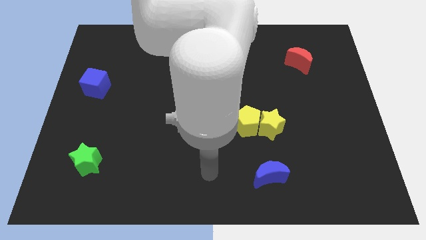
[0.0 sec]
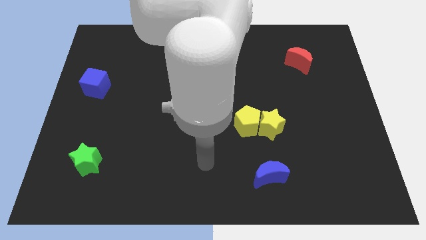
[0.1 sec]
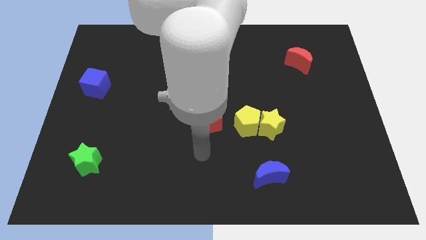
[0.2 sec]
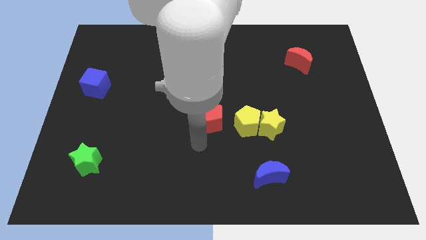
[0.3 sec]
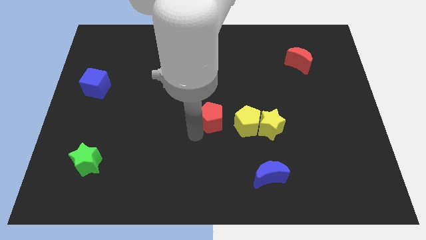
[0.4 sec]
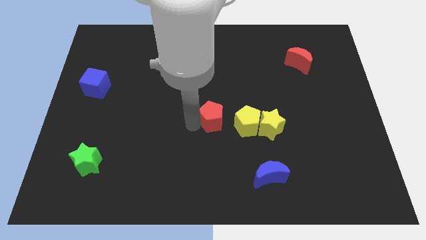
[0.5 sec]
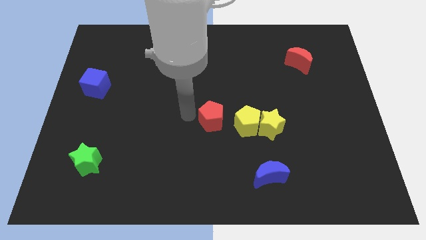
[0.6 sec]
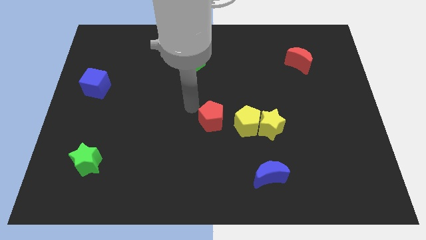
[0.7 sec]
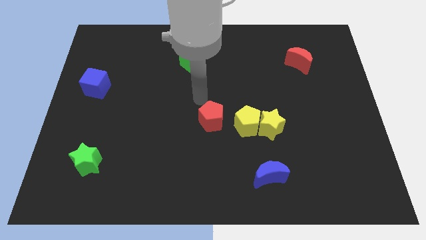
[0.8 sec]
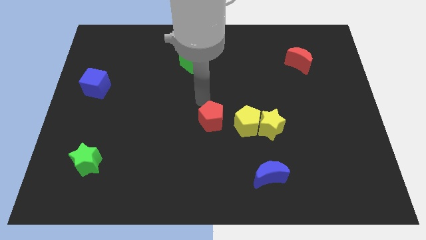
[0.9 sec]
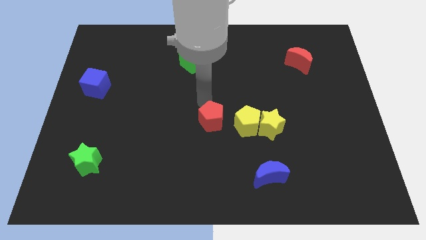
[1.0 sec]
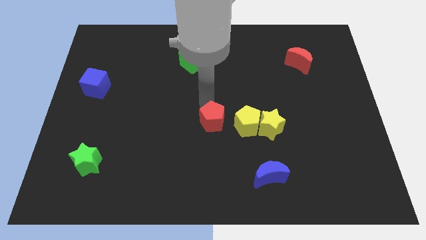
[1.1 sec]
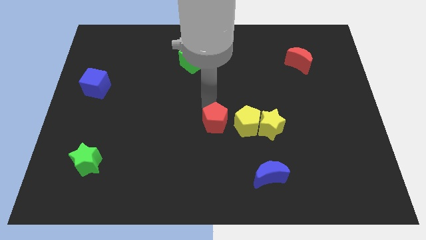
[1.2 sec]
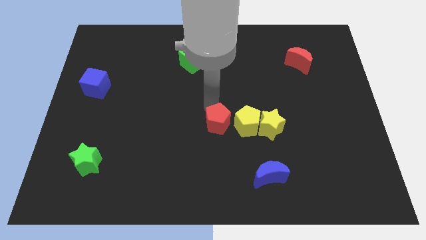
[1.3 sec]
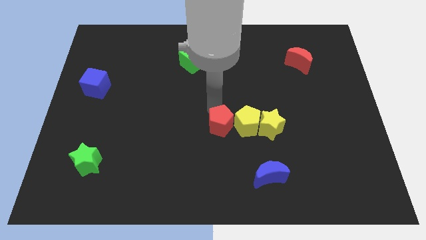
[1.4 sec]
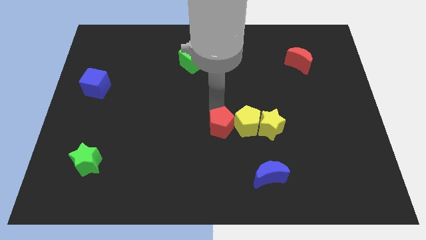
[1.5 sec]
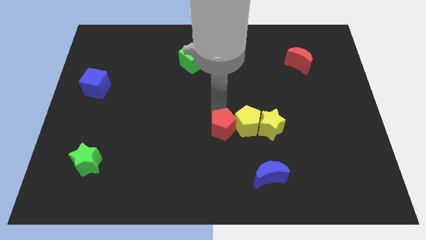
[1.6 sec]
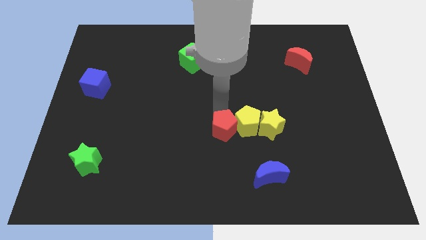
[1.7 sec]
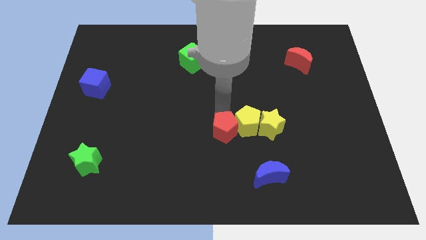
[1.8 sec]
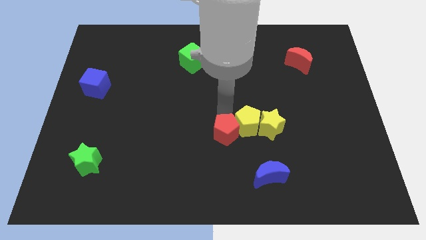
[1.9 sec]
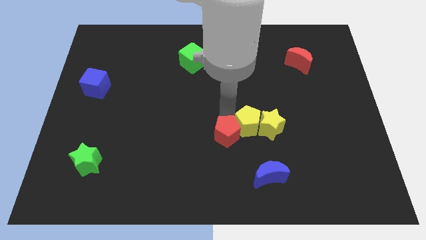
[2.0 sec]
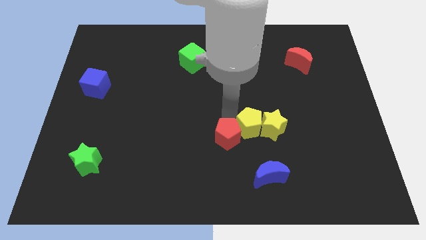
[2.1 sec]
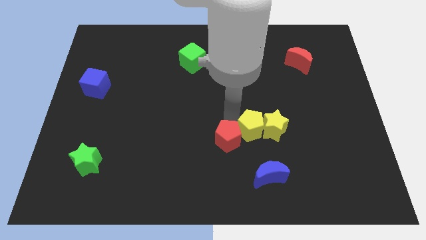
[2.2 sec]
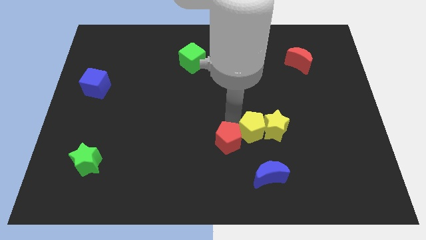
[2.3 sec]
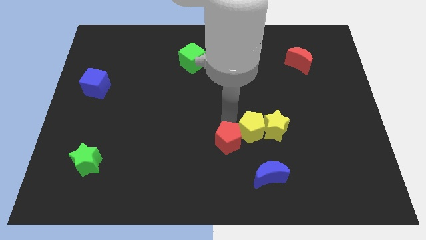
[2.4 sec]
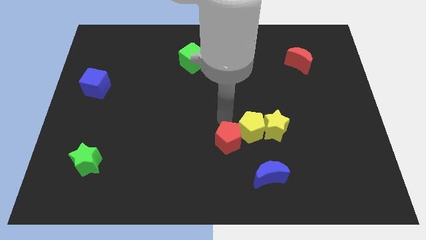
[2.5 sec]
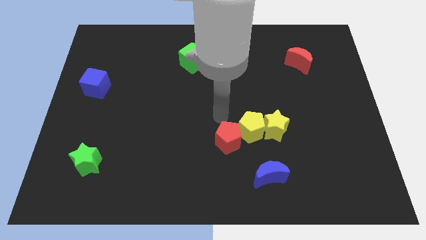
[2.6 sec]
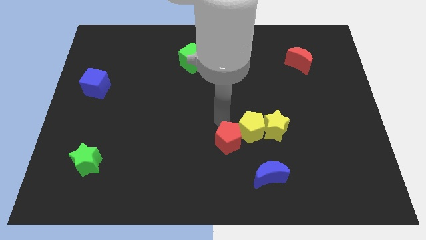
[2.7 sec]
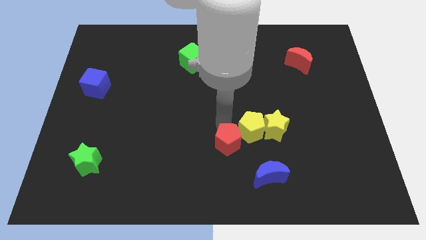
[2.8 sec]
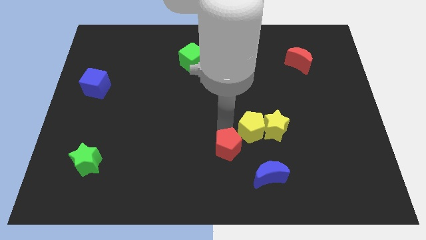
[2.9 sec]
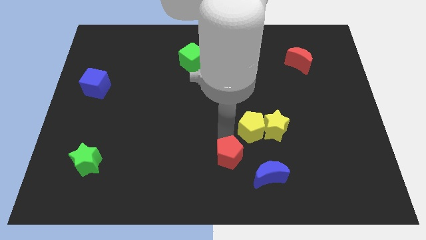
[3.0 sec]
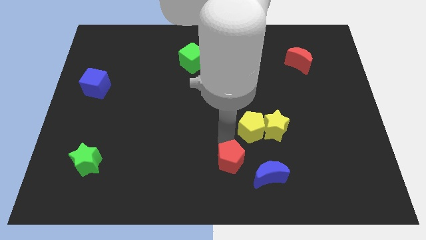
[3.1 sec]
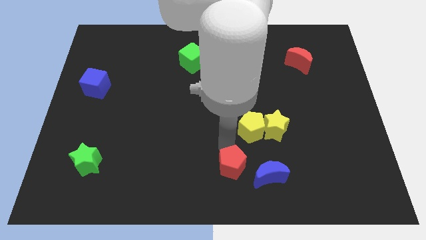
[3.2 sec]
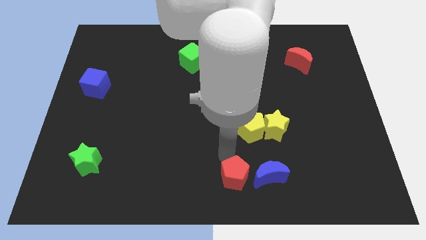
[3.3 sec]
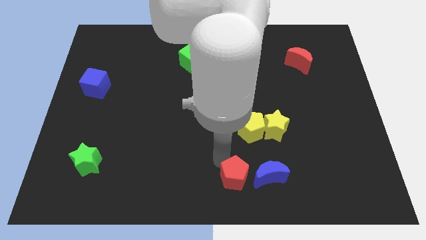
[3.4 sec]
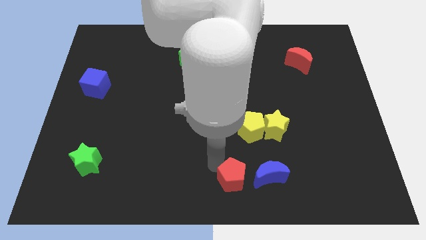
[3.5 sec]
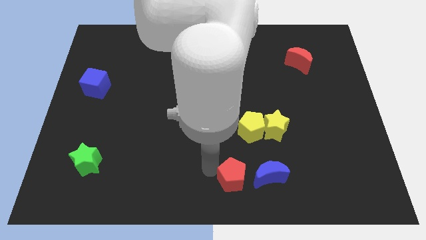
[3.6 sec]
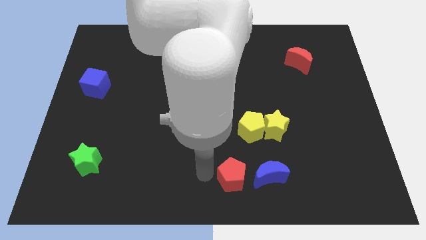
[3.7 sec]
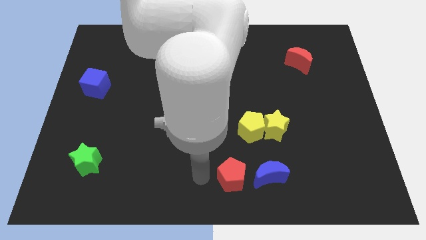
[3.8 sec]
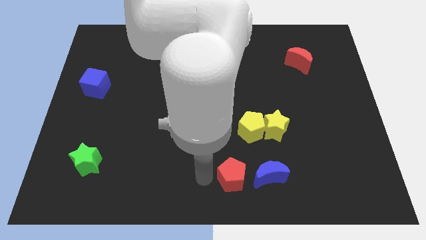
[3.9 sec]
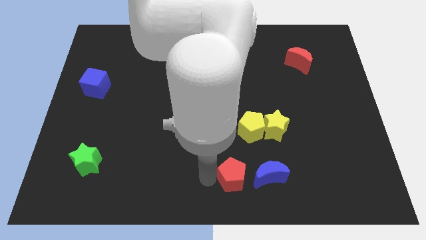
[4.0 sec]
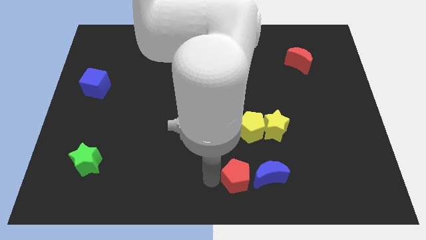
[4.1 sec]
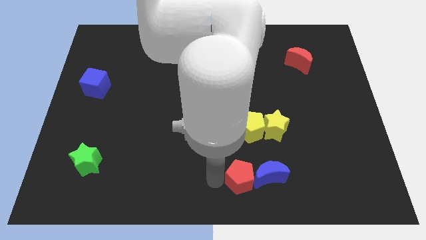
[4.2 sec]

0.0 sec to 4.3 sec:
put the red pentagon next to the blue moon

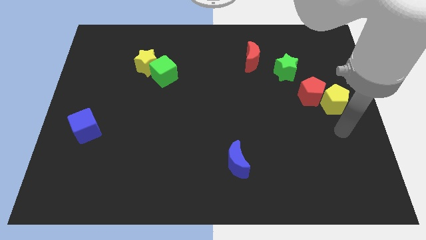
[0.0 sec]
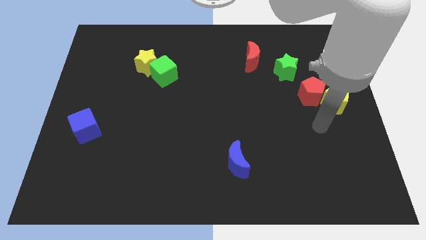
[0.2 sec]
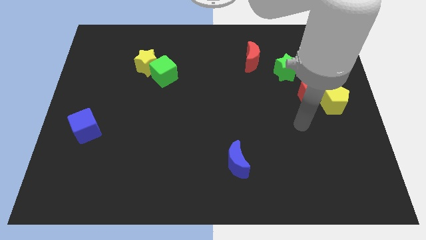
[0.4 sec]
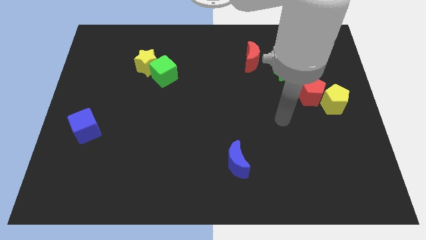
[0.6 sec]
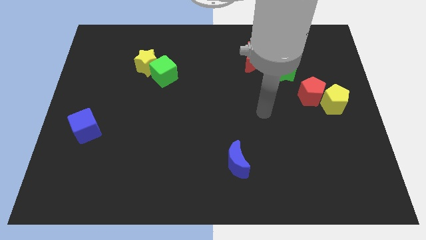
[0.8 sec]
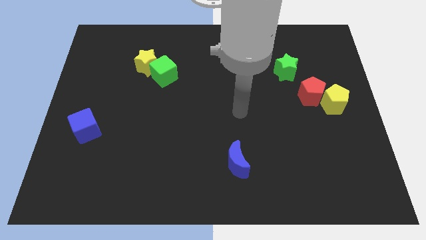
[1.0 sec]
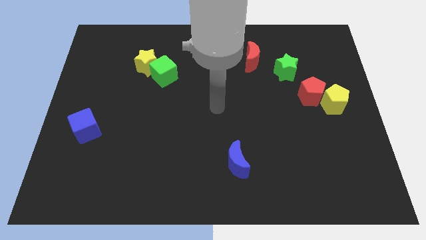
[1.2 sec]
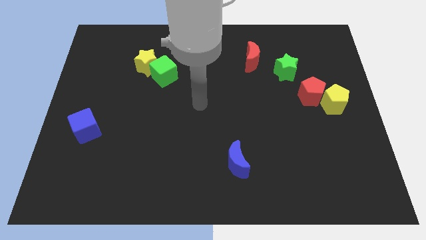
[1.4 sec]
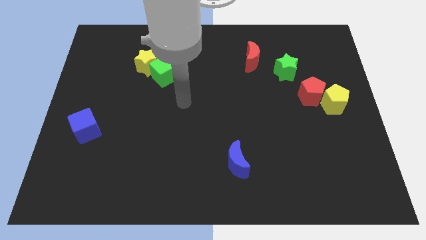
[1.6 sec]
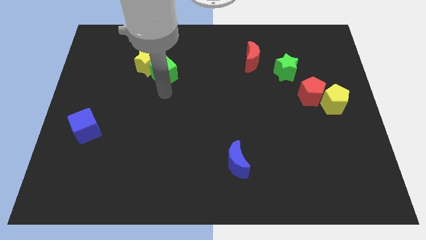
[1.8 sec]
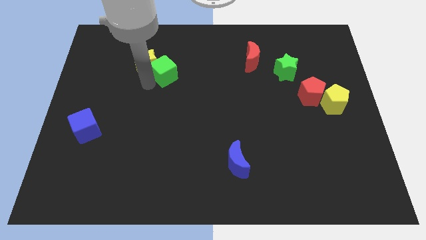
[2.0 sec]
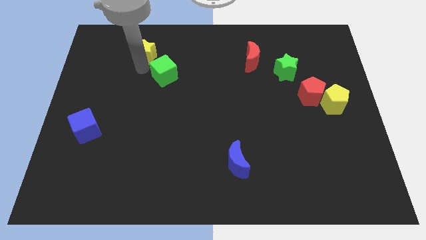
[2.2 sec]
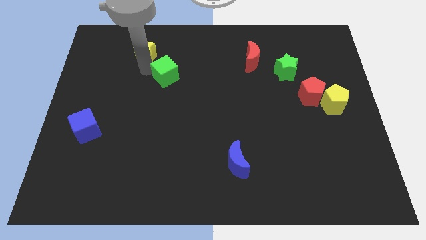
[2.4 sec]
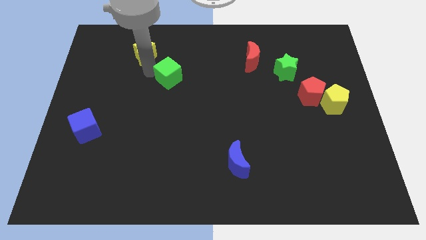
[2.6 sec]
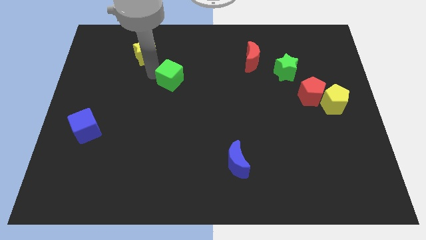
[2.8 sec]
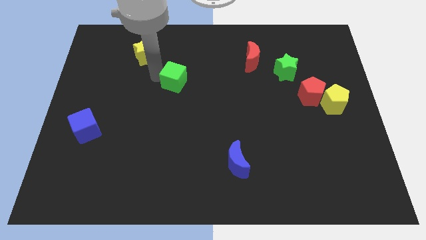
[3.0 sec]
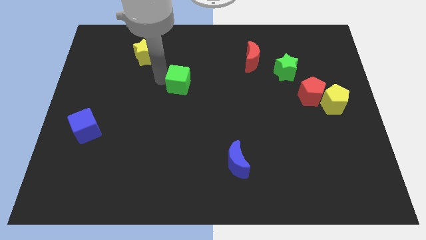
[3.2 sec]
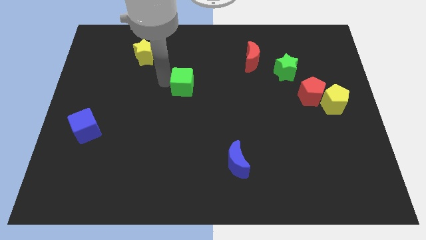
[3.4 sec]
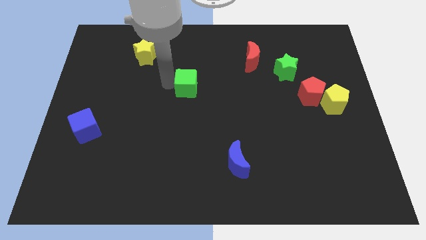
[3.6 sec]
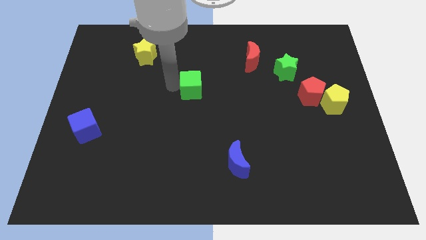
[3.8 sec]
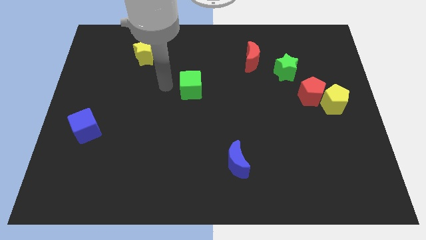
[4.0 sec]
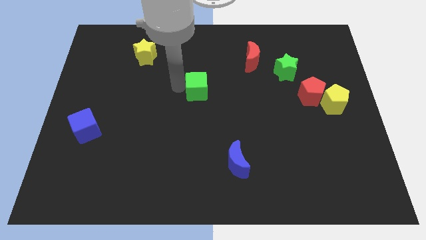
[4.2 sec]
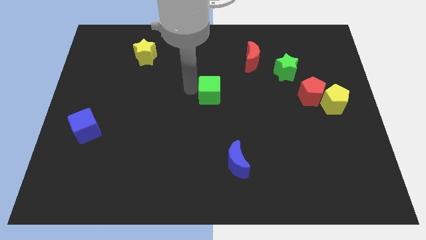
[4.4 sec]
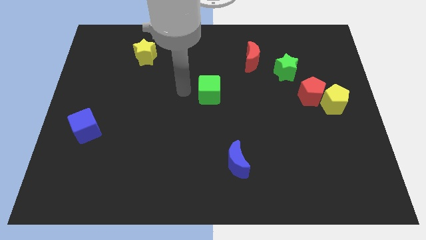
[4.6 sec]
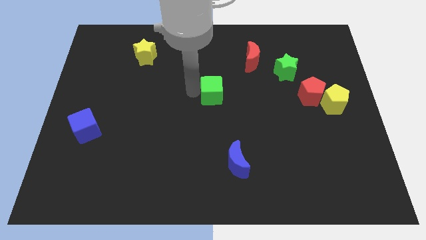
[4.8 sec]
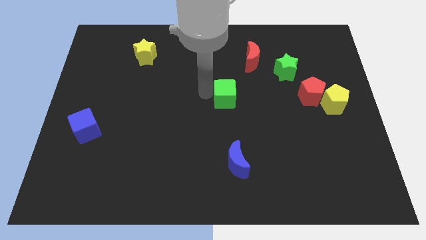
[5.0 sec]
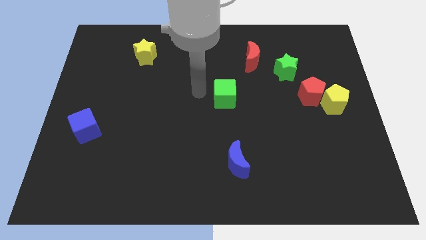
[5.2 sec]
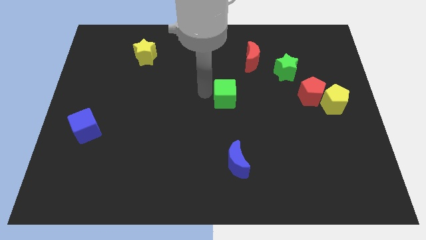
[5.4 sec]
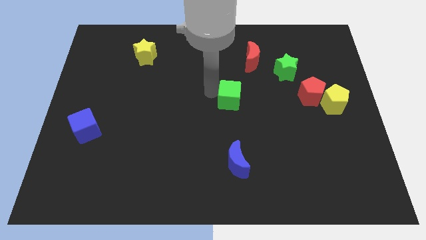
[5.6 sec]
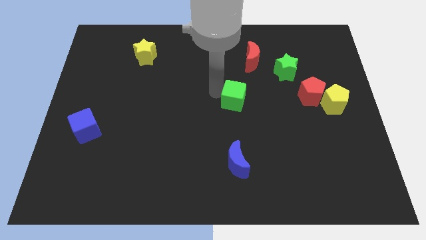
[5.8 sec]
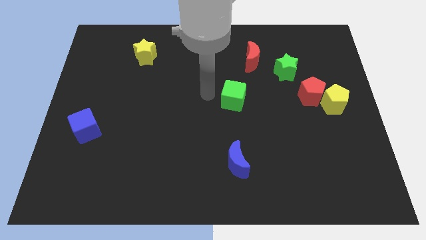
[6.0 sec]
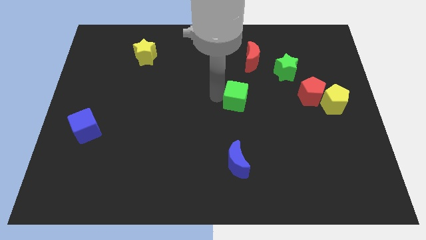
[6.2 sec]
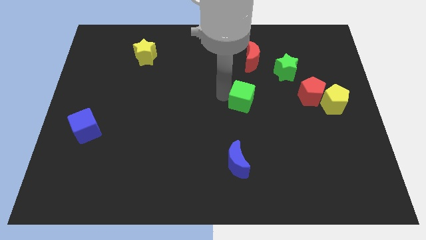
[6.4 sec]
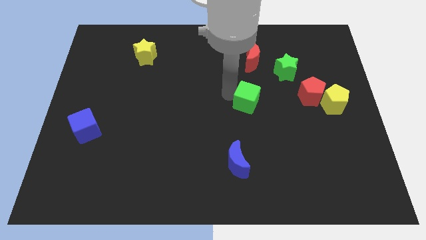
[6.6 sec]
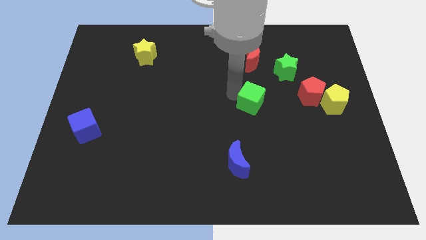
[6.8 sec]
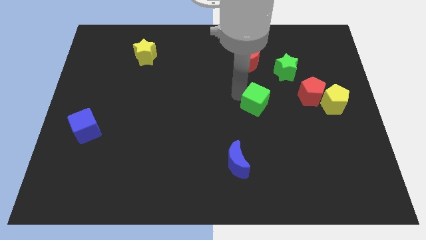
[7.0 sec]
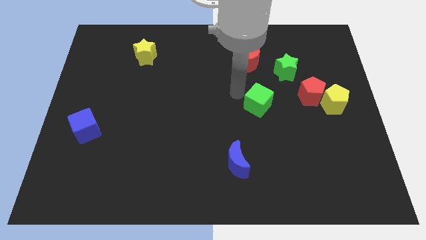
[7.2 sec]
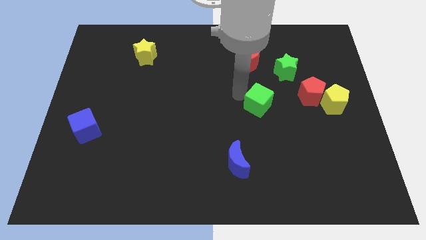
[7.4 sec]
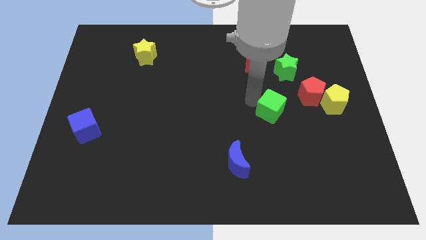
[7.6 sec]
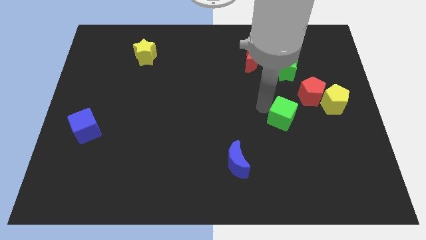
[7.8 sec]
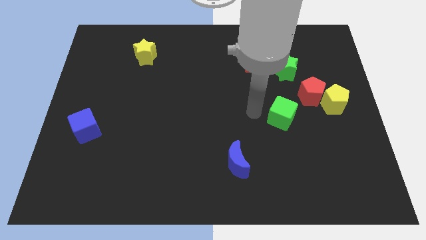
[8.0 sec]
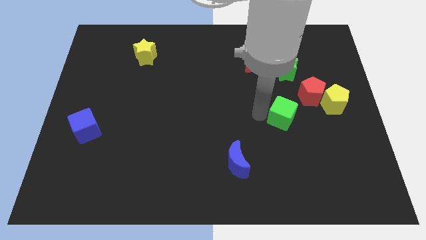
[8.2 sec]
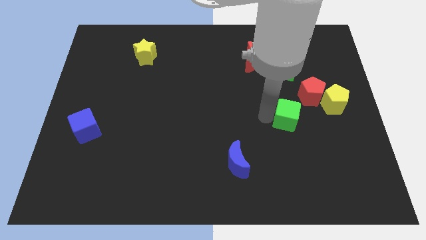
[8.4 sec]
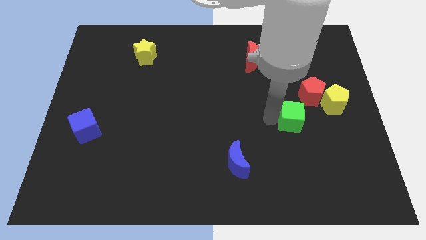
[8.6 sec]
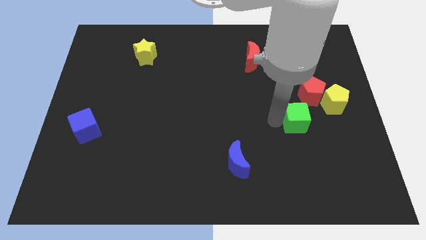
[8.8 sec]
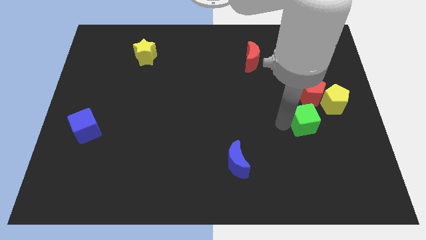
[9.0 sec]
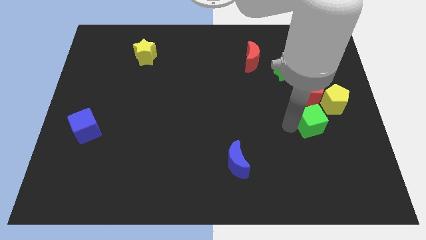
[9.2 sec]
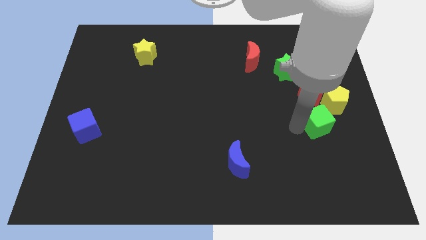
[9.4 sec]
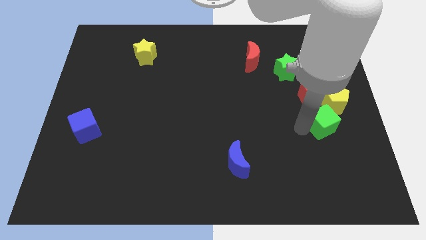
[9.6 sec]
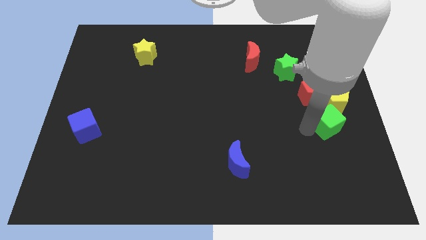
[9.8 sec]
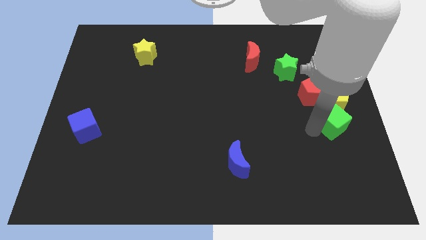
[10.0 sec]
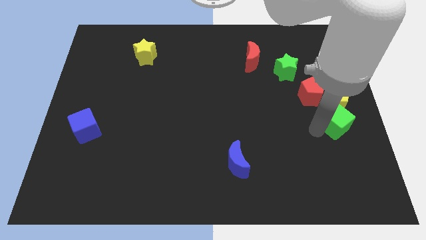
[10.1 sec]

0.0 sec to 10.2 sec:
move the green cube next to the yellow pentagon
